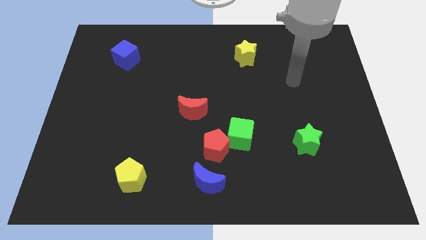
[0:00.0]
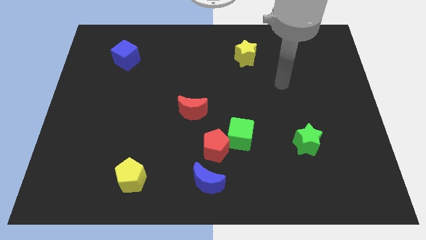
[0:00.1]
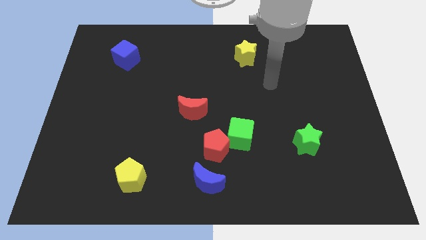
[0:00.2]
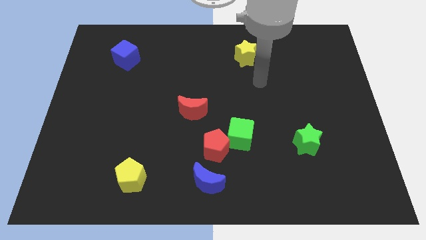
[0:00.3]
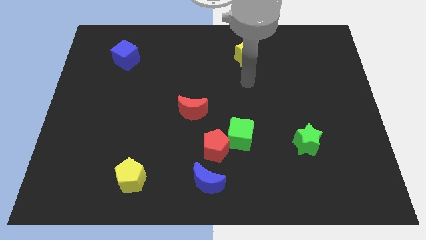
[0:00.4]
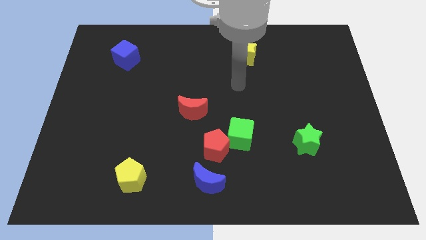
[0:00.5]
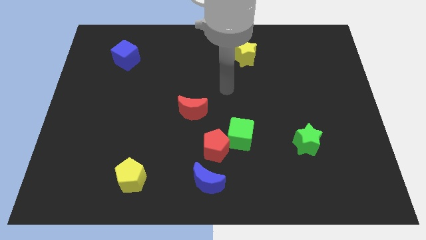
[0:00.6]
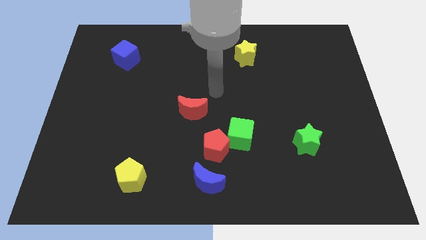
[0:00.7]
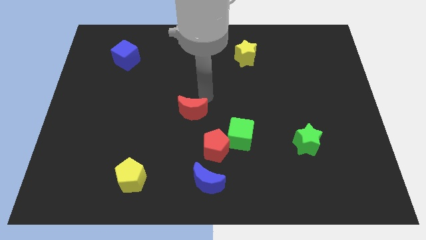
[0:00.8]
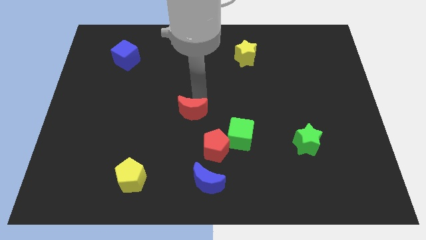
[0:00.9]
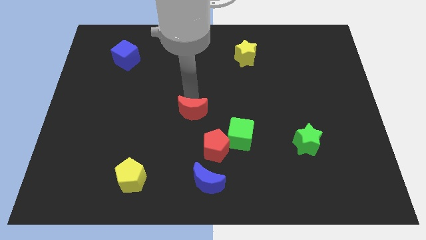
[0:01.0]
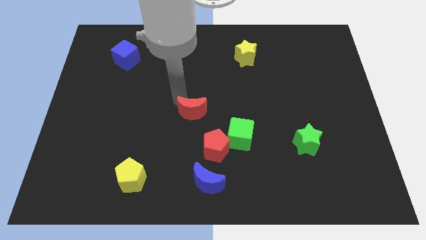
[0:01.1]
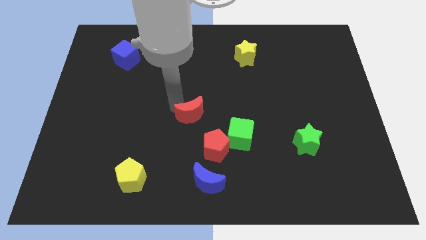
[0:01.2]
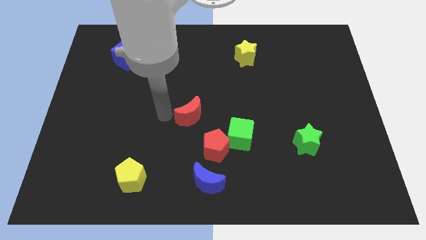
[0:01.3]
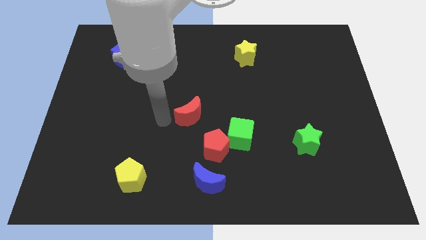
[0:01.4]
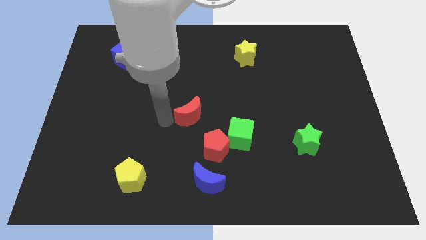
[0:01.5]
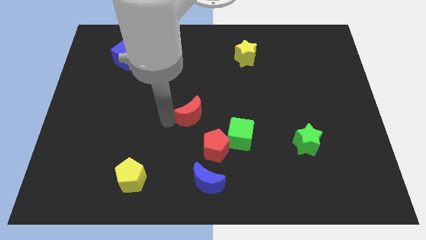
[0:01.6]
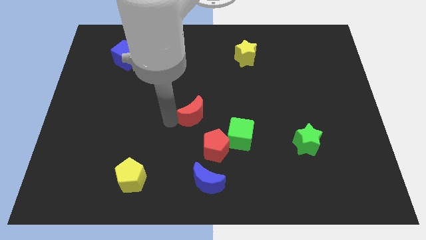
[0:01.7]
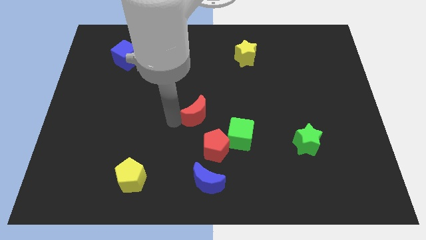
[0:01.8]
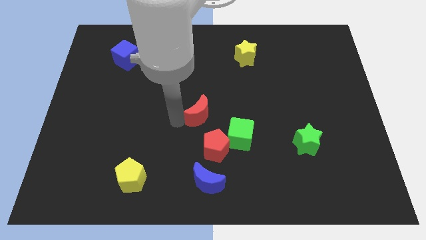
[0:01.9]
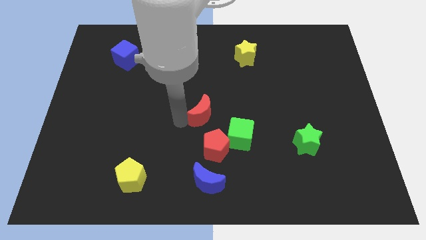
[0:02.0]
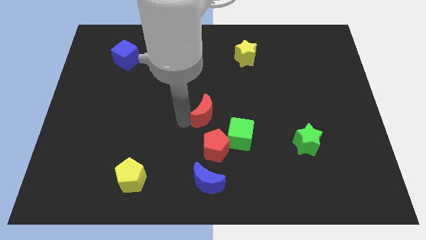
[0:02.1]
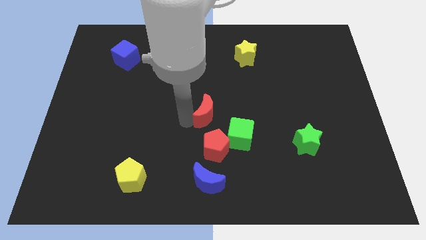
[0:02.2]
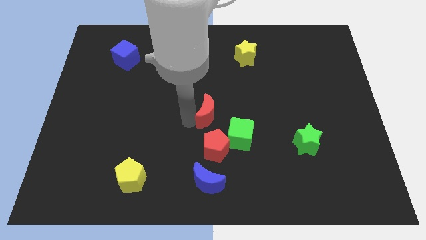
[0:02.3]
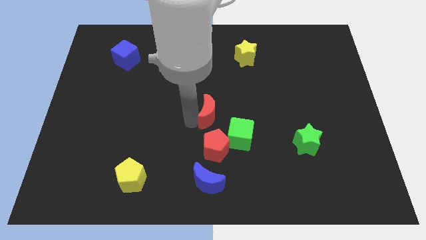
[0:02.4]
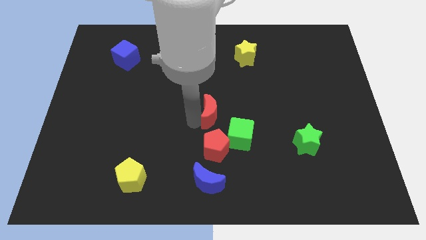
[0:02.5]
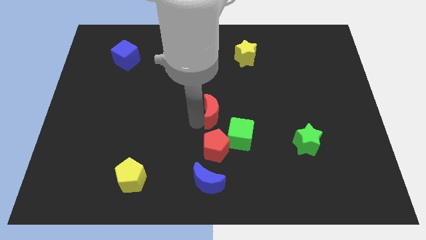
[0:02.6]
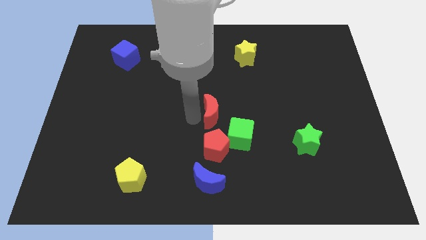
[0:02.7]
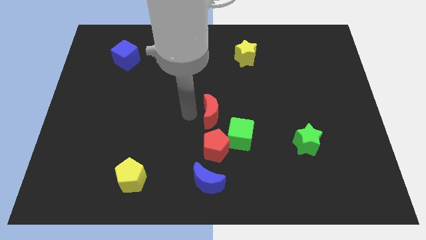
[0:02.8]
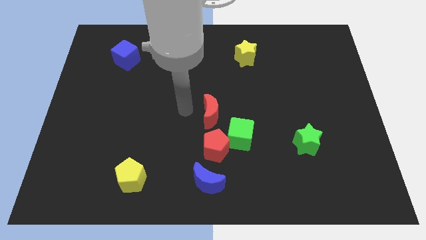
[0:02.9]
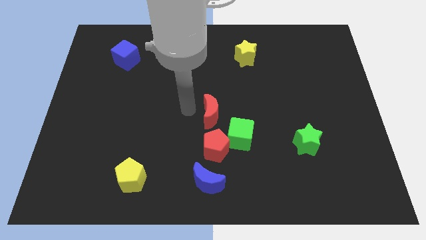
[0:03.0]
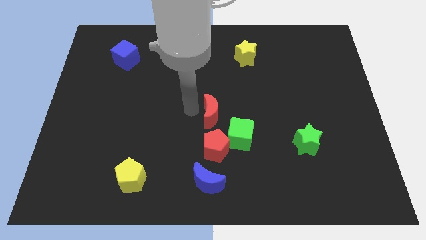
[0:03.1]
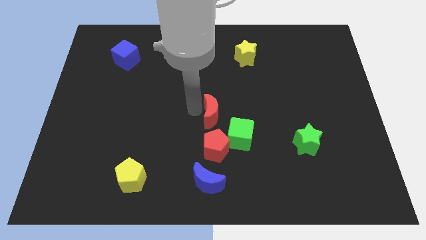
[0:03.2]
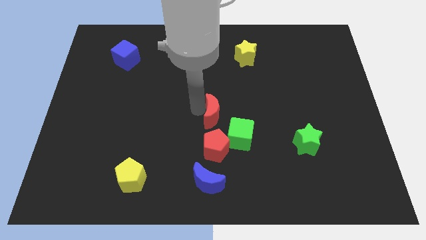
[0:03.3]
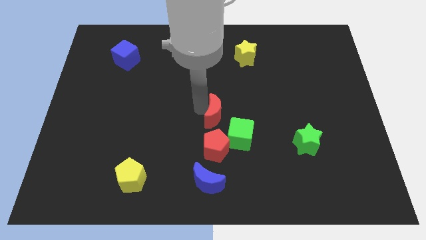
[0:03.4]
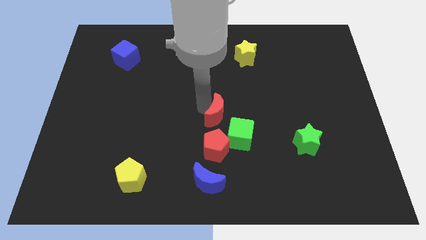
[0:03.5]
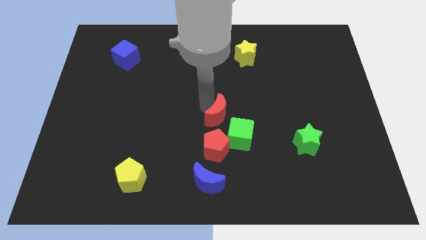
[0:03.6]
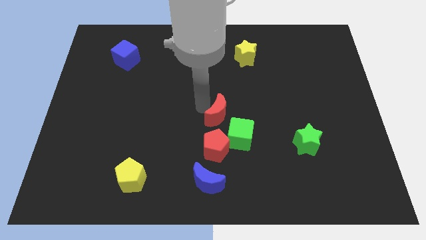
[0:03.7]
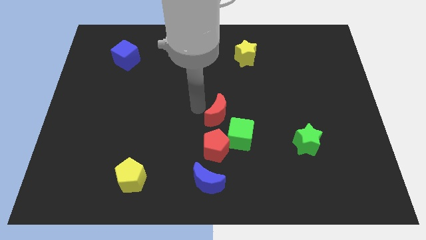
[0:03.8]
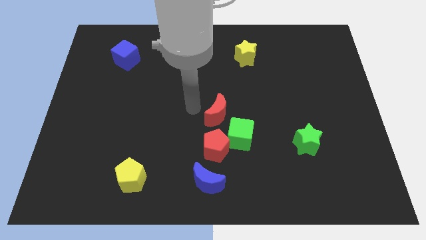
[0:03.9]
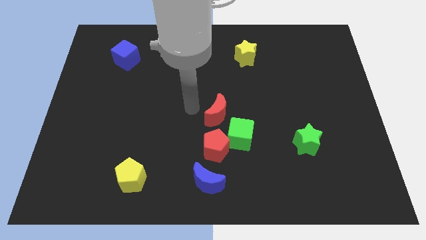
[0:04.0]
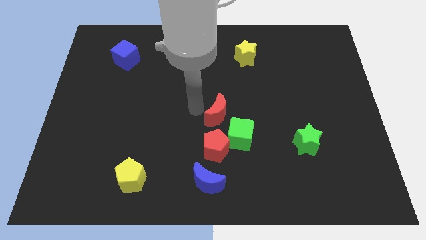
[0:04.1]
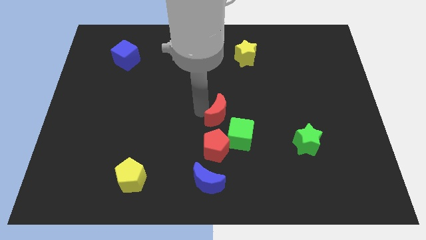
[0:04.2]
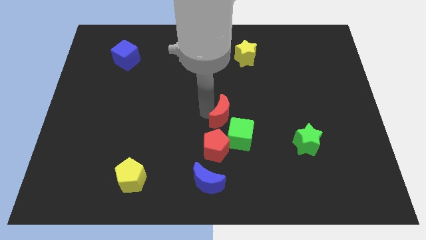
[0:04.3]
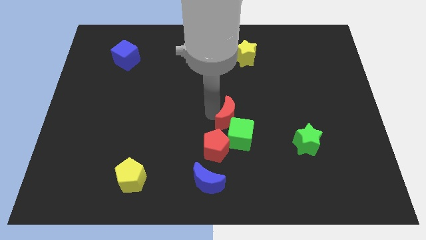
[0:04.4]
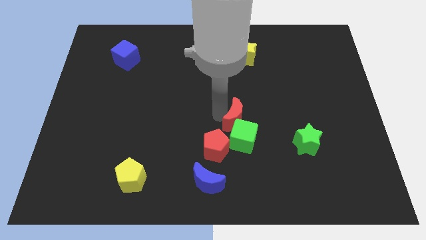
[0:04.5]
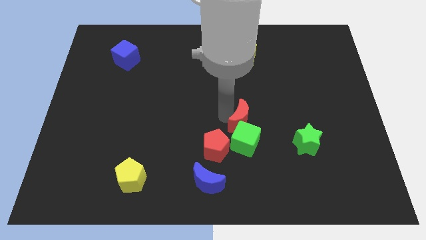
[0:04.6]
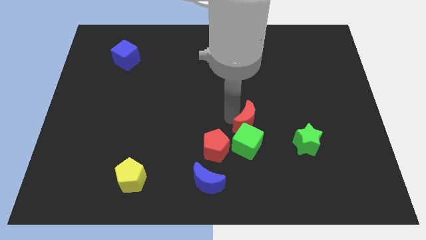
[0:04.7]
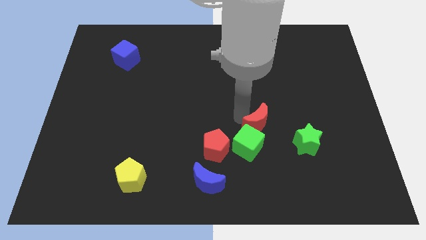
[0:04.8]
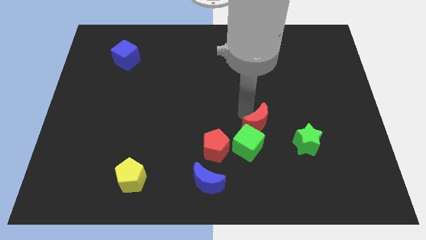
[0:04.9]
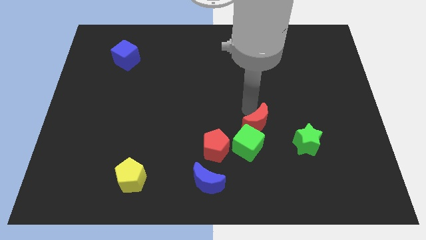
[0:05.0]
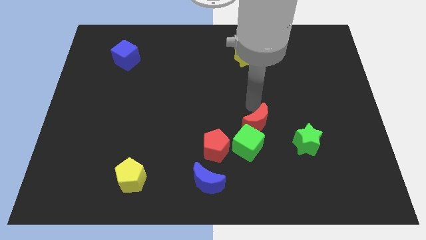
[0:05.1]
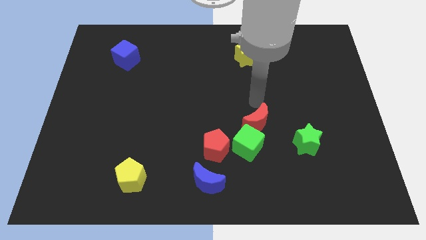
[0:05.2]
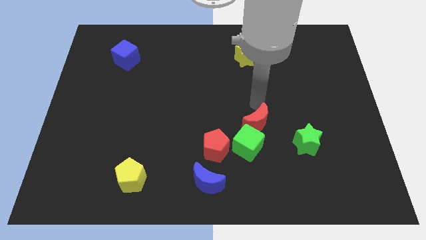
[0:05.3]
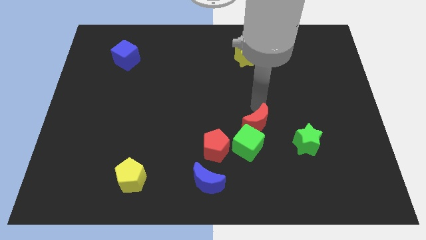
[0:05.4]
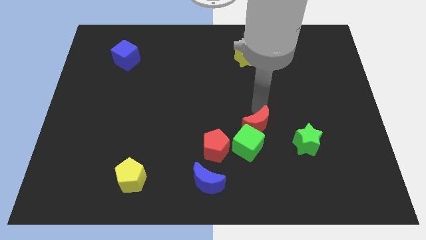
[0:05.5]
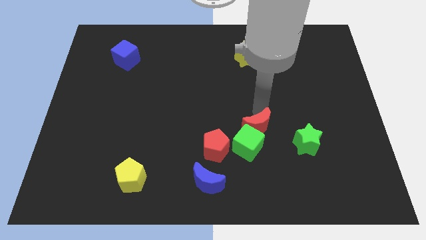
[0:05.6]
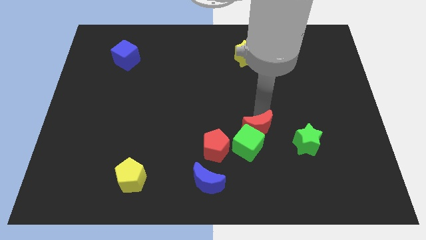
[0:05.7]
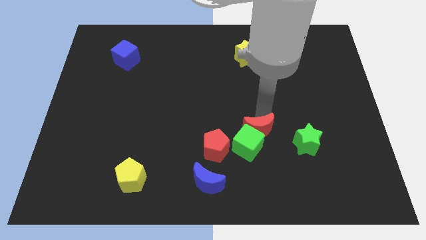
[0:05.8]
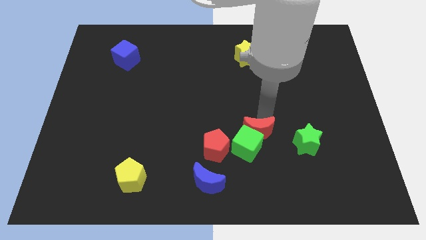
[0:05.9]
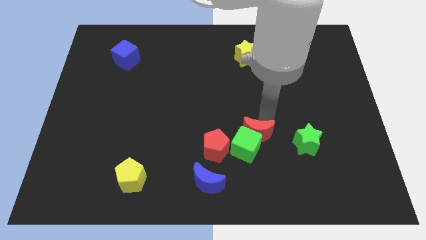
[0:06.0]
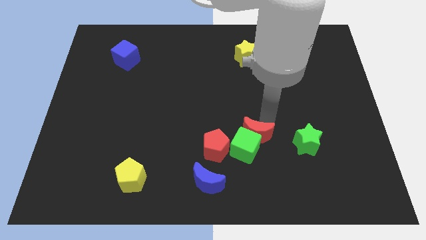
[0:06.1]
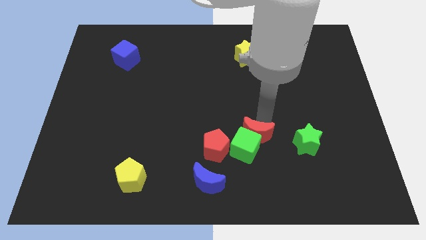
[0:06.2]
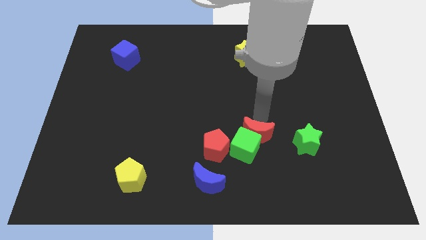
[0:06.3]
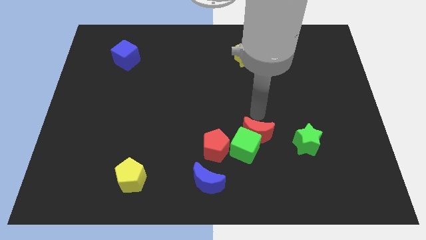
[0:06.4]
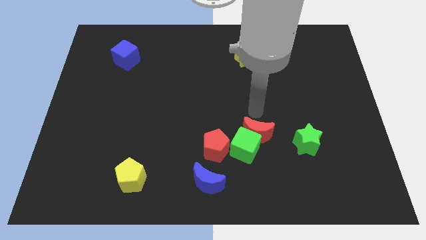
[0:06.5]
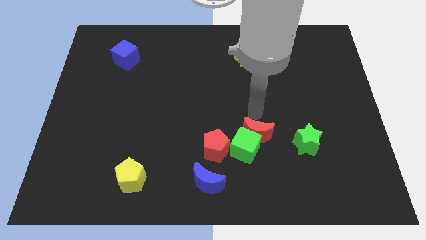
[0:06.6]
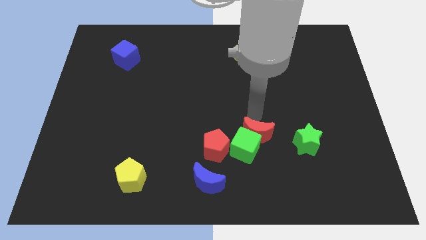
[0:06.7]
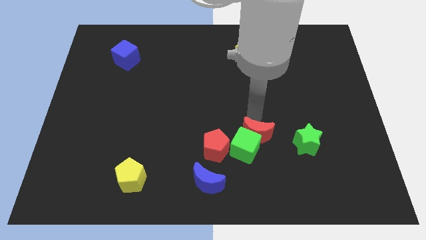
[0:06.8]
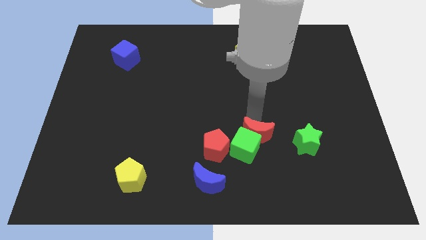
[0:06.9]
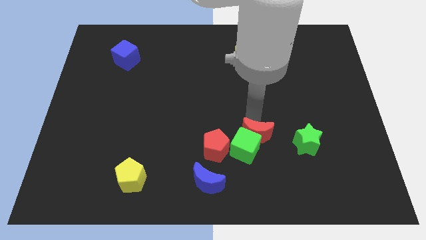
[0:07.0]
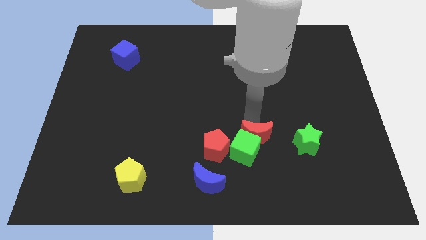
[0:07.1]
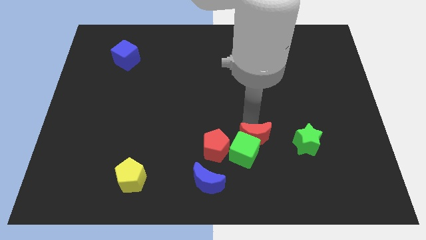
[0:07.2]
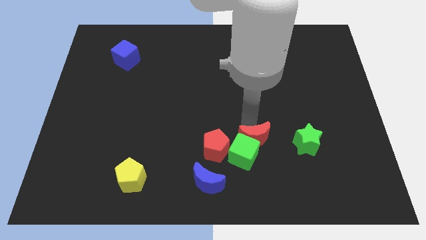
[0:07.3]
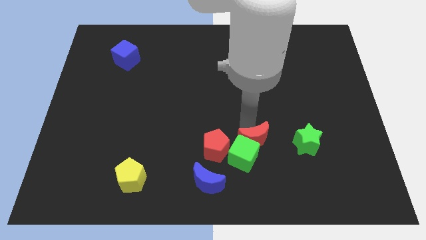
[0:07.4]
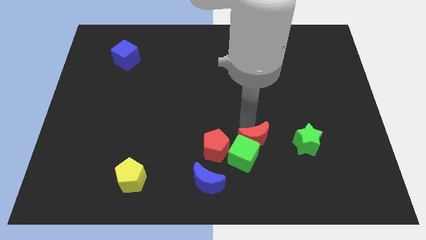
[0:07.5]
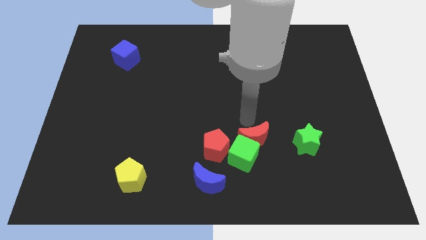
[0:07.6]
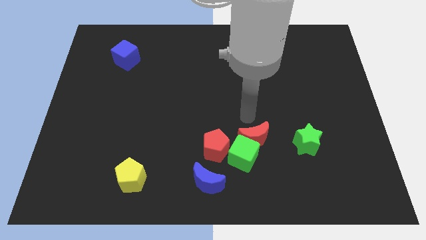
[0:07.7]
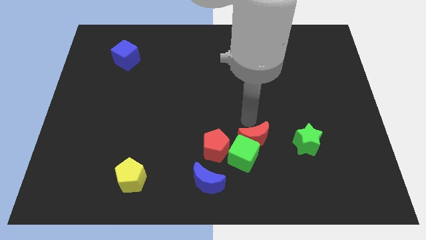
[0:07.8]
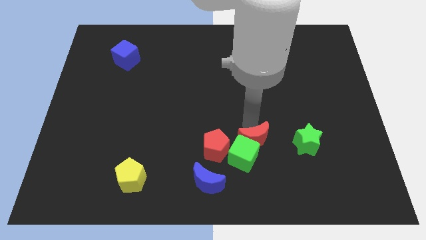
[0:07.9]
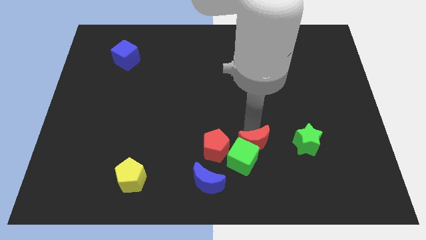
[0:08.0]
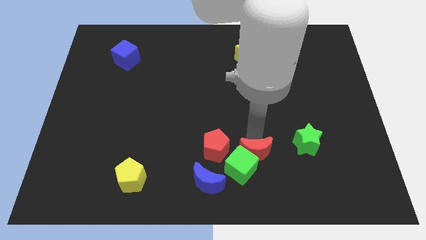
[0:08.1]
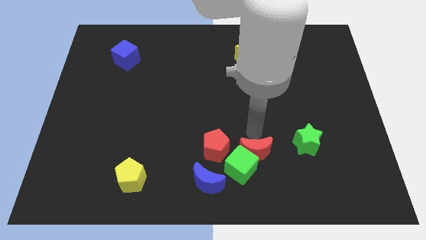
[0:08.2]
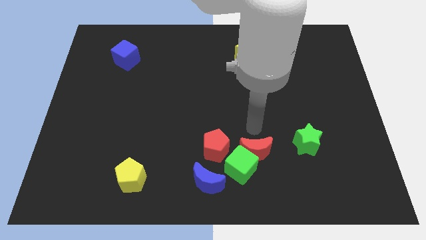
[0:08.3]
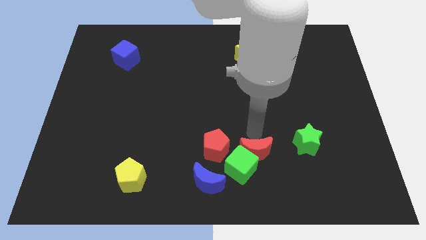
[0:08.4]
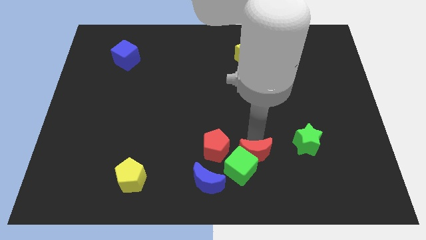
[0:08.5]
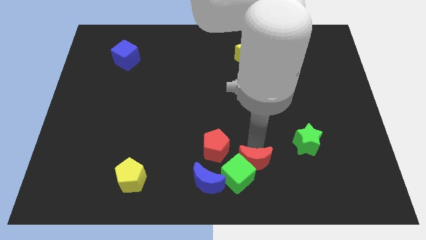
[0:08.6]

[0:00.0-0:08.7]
move the red moon to the right side of the blue moon
